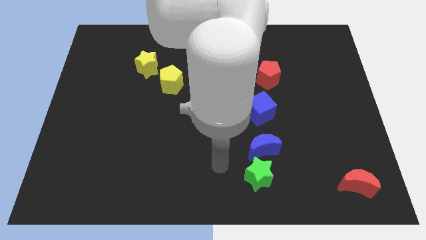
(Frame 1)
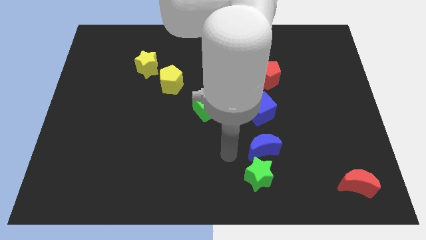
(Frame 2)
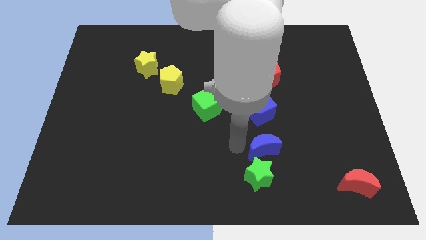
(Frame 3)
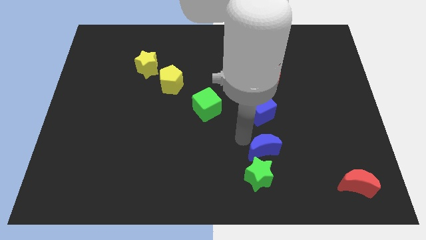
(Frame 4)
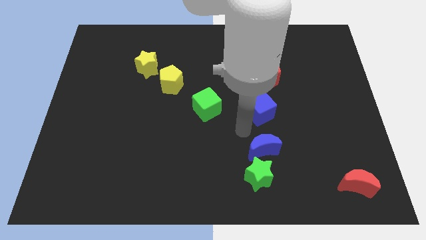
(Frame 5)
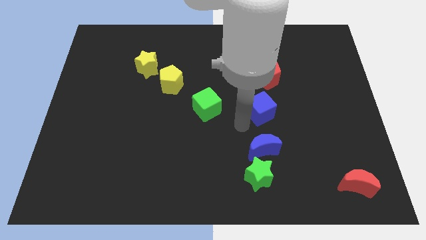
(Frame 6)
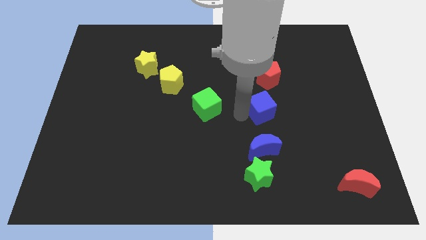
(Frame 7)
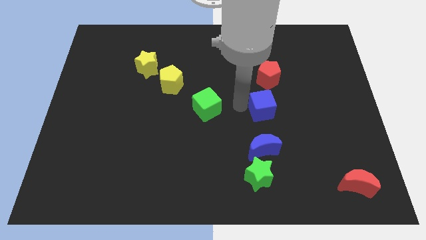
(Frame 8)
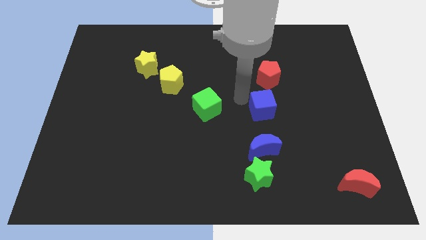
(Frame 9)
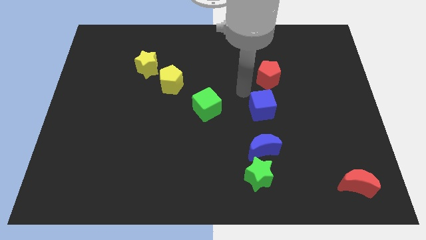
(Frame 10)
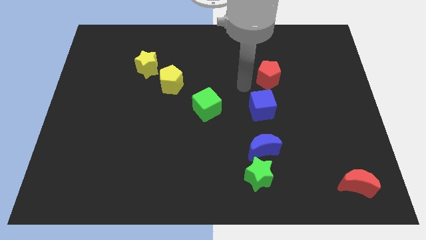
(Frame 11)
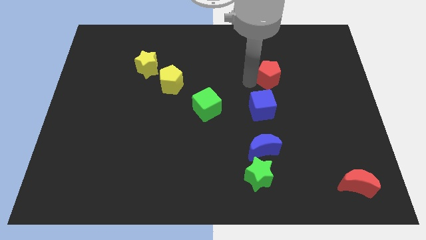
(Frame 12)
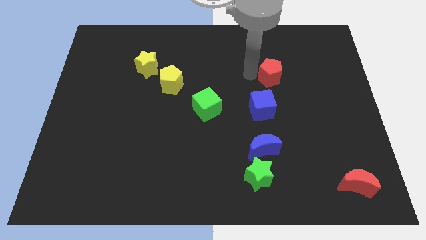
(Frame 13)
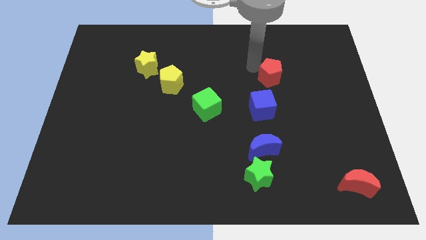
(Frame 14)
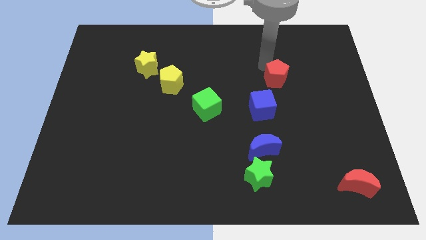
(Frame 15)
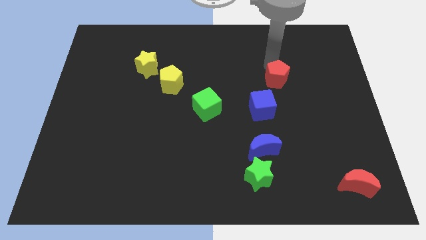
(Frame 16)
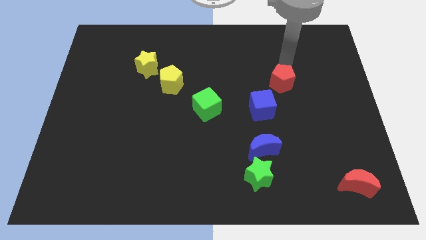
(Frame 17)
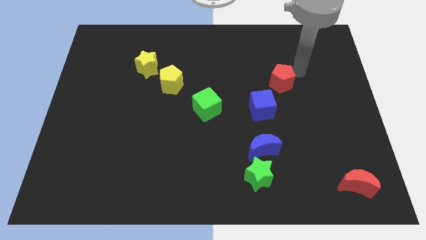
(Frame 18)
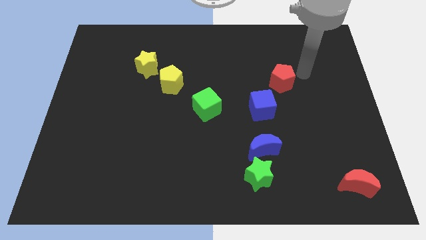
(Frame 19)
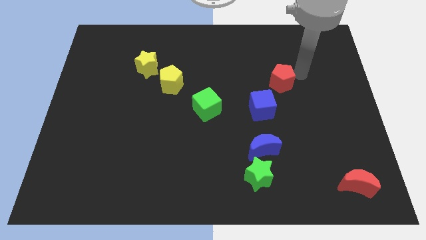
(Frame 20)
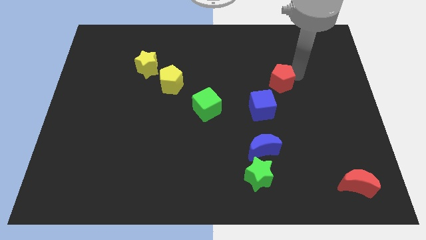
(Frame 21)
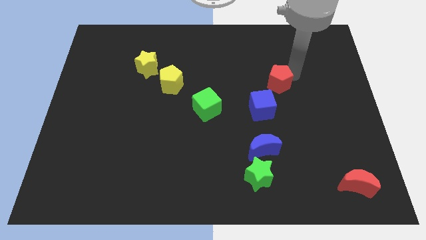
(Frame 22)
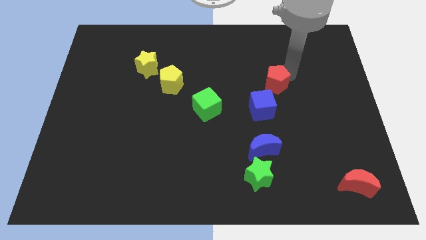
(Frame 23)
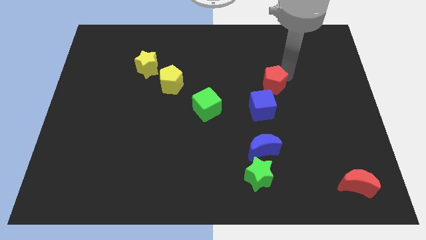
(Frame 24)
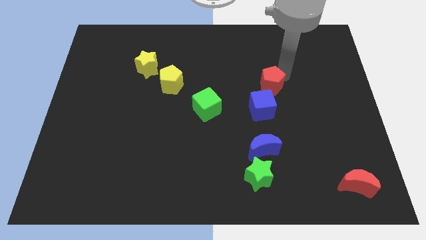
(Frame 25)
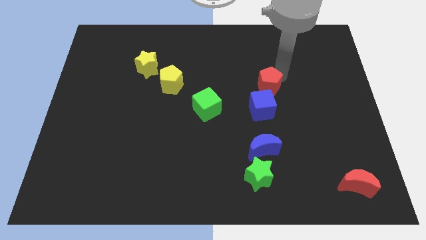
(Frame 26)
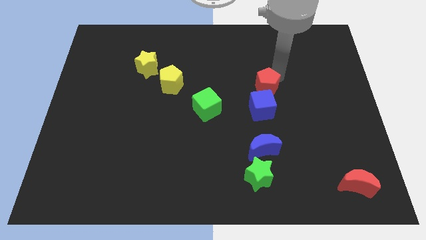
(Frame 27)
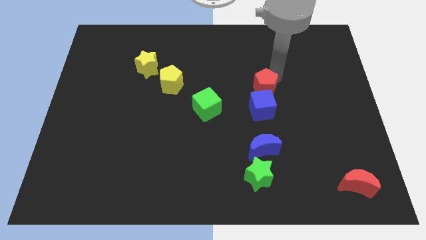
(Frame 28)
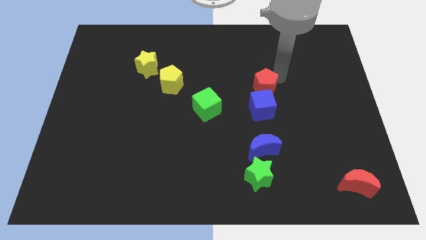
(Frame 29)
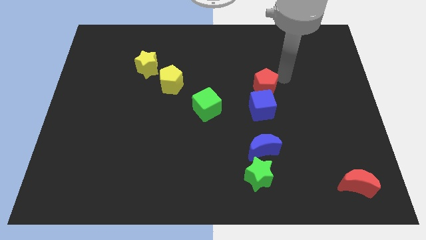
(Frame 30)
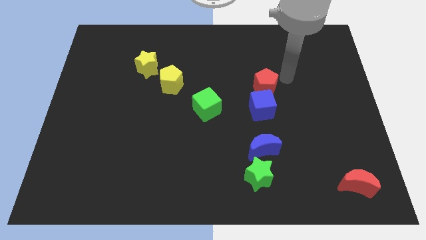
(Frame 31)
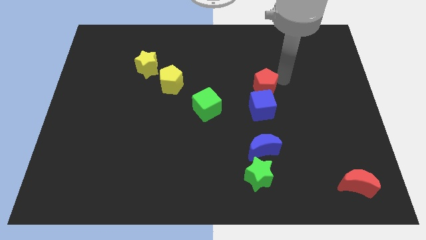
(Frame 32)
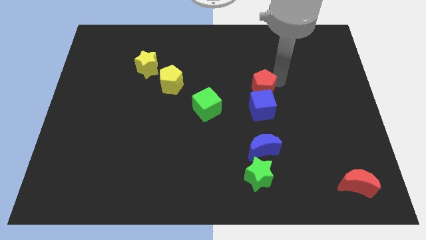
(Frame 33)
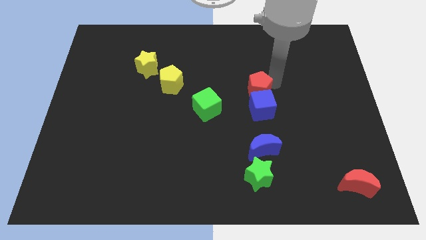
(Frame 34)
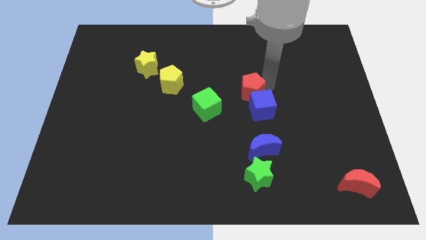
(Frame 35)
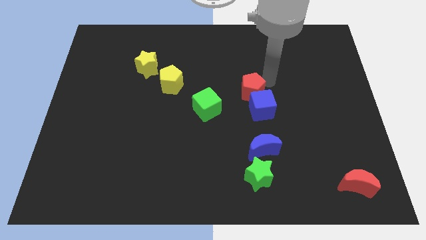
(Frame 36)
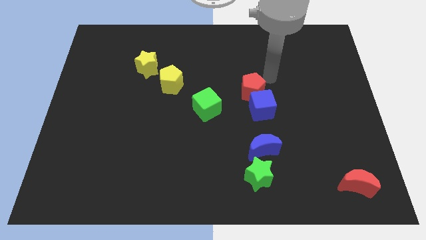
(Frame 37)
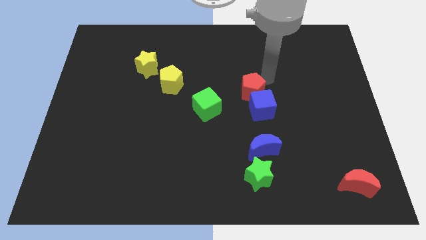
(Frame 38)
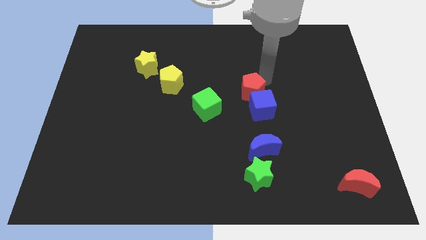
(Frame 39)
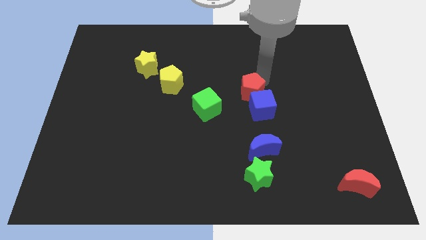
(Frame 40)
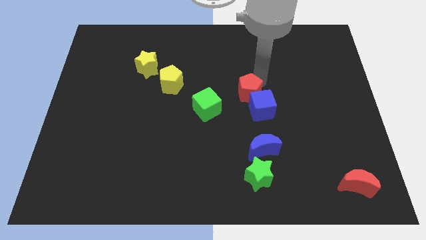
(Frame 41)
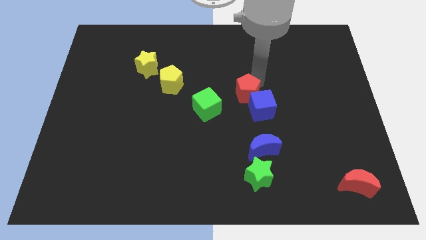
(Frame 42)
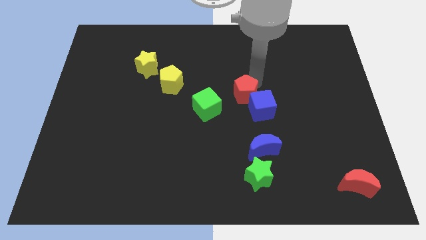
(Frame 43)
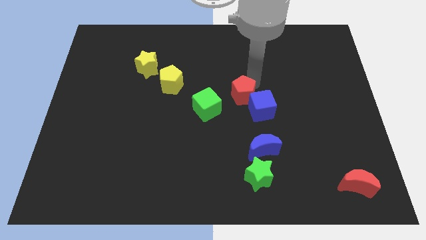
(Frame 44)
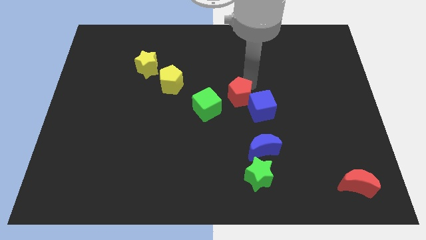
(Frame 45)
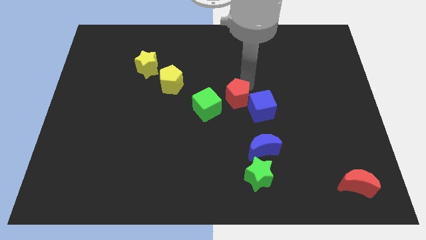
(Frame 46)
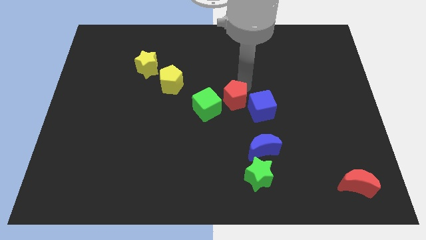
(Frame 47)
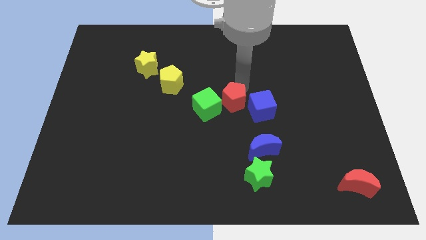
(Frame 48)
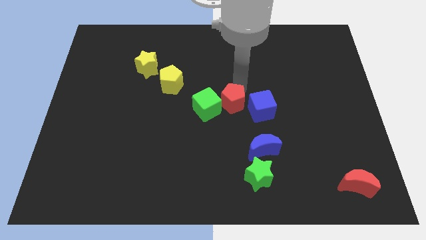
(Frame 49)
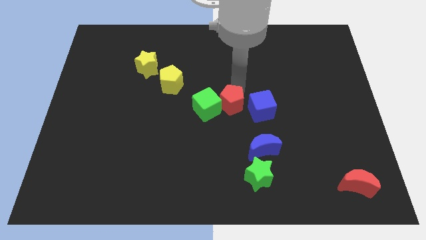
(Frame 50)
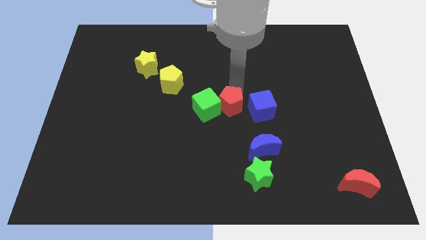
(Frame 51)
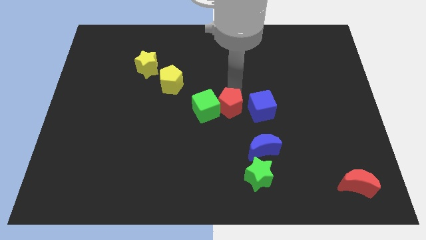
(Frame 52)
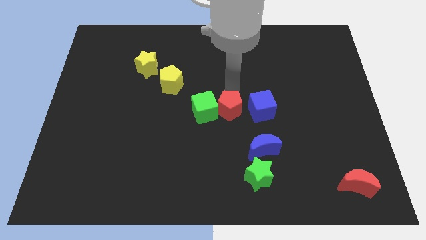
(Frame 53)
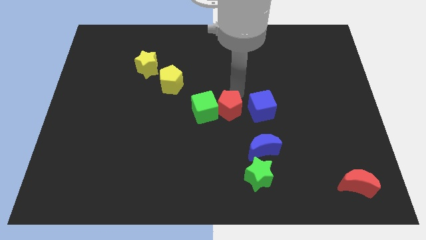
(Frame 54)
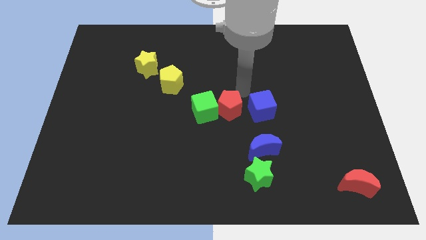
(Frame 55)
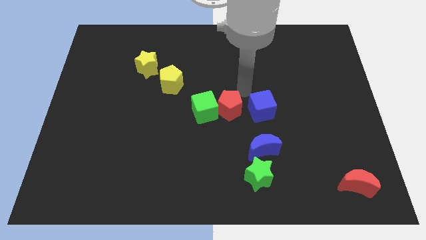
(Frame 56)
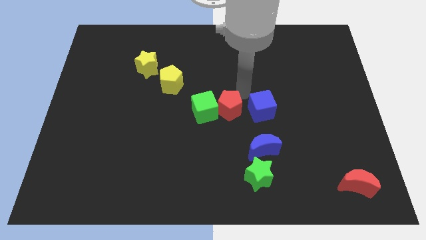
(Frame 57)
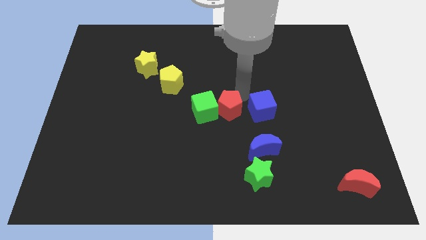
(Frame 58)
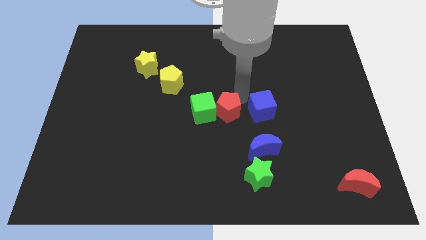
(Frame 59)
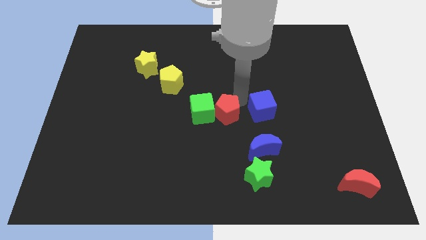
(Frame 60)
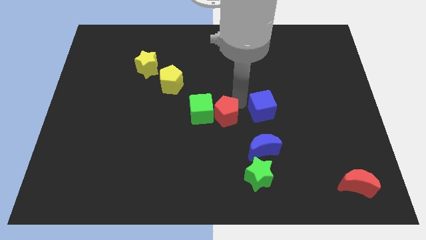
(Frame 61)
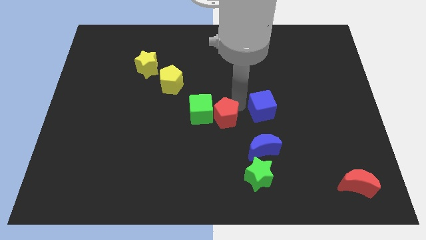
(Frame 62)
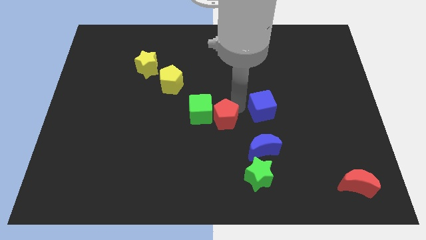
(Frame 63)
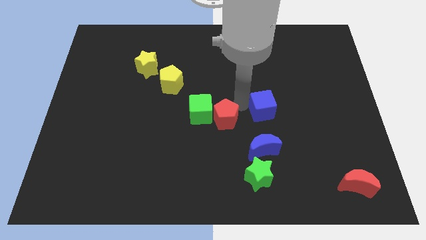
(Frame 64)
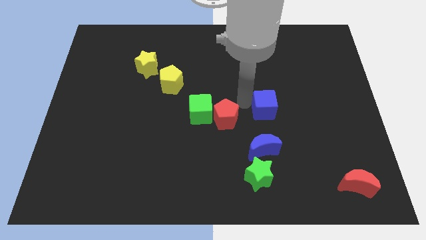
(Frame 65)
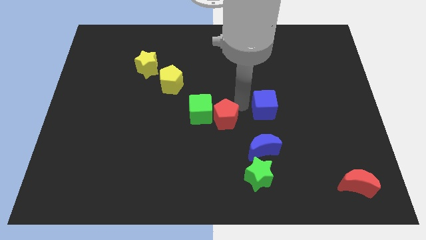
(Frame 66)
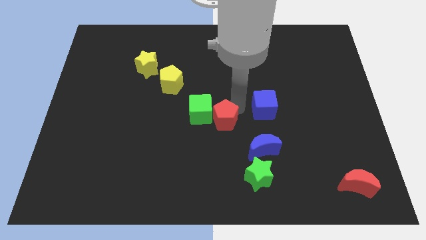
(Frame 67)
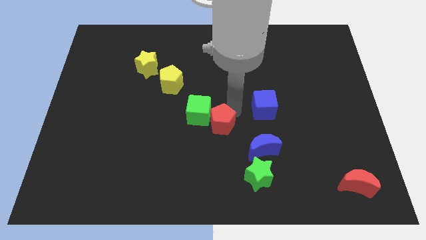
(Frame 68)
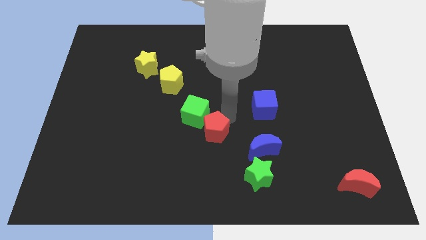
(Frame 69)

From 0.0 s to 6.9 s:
move the red pentagon downwards and then to the left

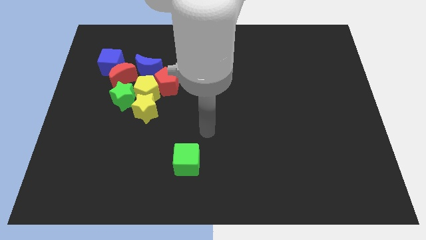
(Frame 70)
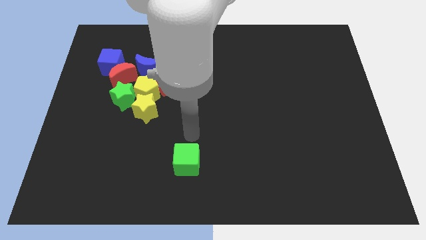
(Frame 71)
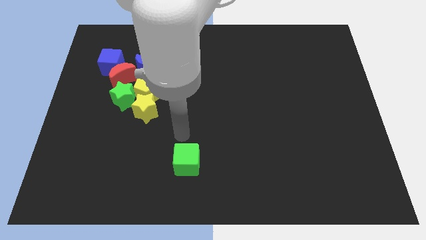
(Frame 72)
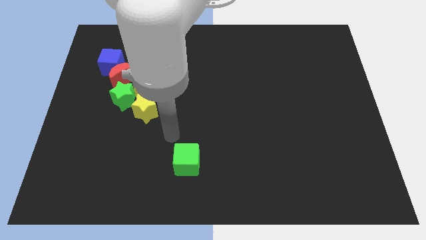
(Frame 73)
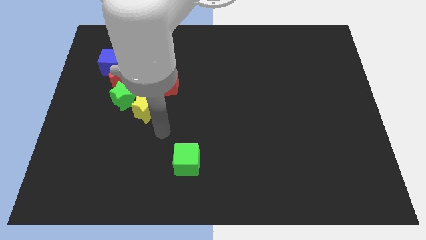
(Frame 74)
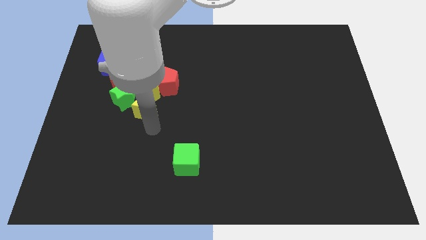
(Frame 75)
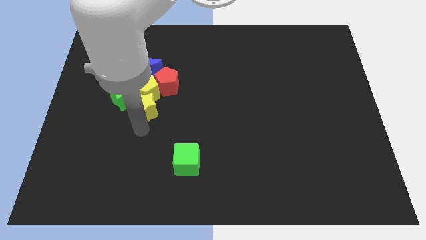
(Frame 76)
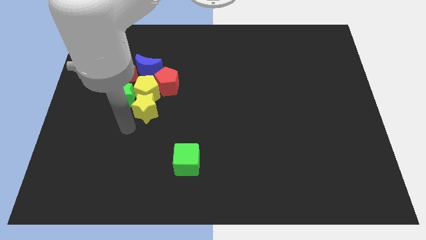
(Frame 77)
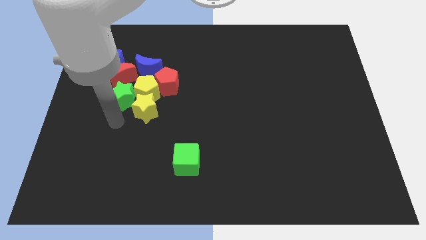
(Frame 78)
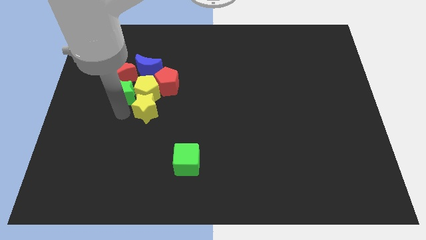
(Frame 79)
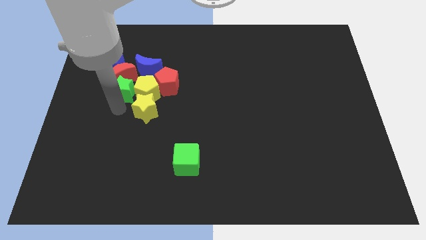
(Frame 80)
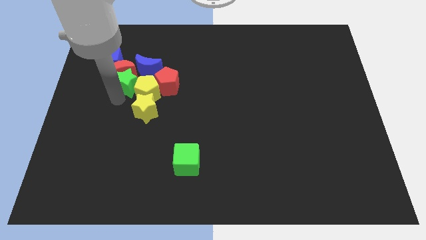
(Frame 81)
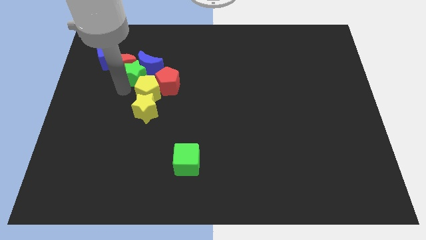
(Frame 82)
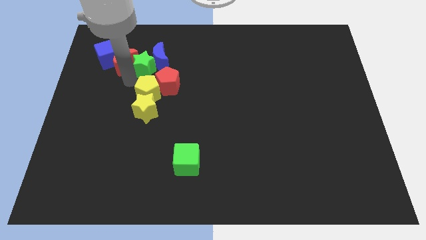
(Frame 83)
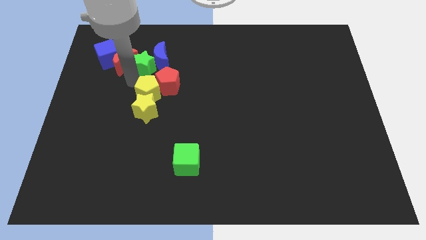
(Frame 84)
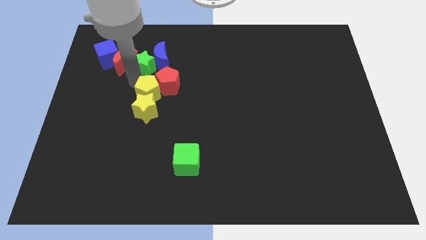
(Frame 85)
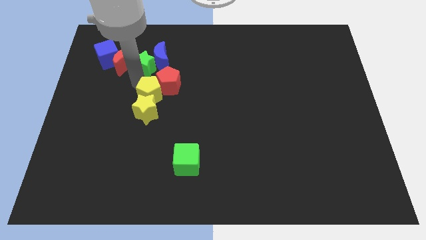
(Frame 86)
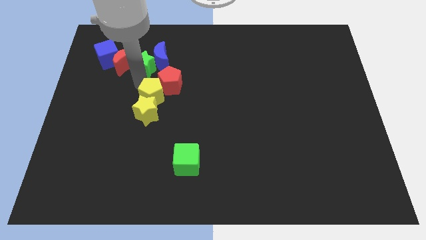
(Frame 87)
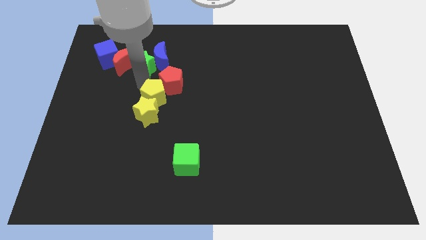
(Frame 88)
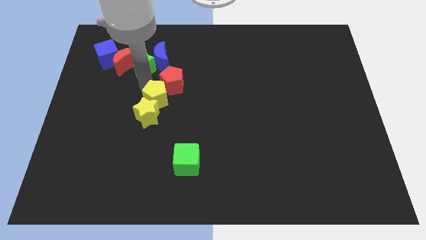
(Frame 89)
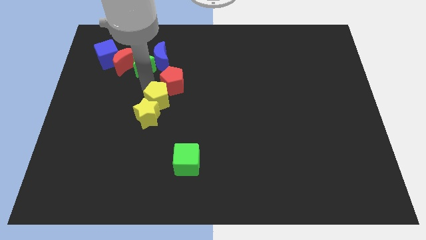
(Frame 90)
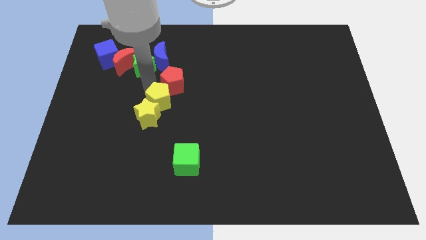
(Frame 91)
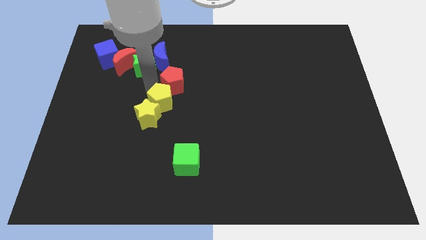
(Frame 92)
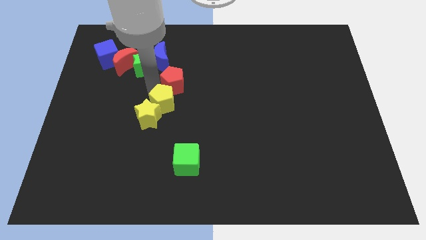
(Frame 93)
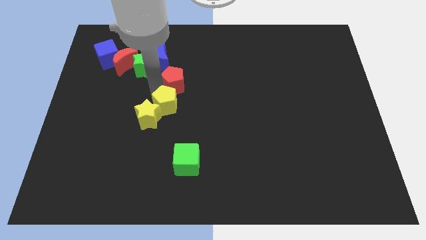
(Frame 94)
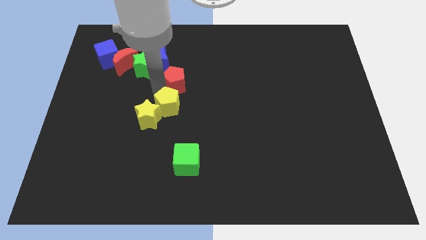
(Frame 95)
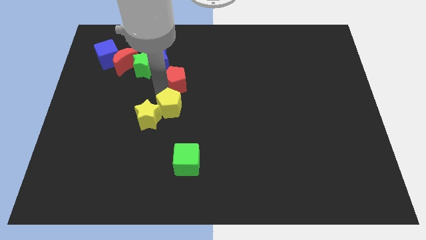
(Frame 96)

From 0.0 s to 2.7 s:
move the yellow pentagon down and to the right diagonally a little
